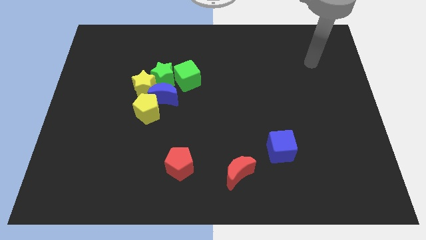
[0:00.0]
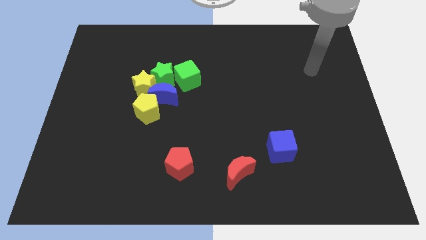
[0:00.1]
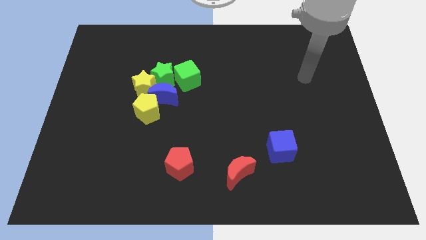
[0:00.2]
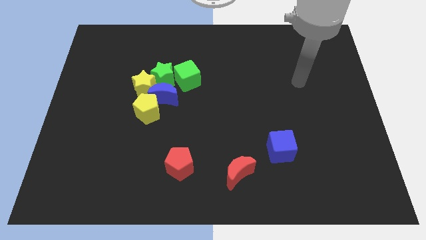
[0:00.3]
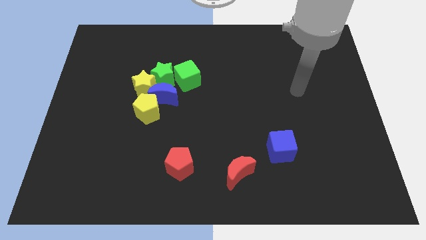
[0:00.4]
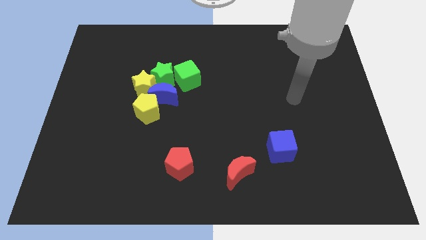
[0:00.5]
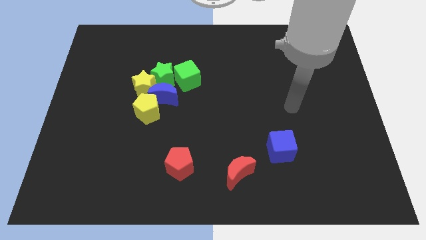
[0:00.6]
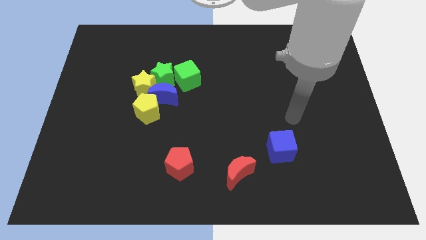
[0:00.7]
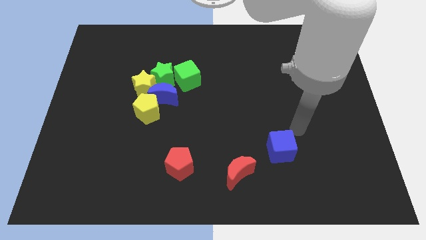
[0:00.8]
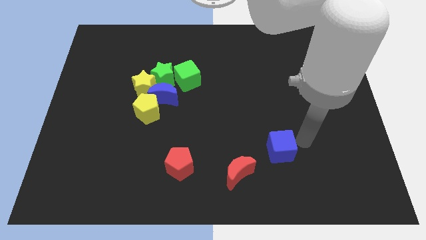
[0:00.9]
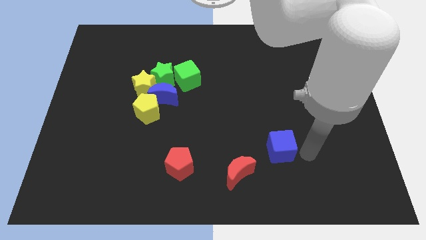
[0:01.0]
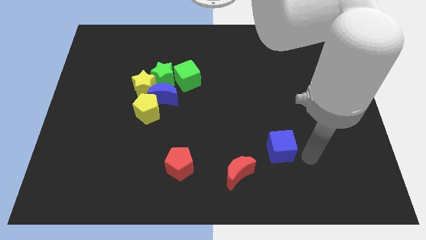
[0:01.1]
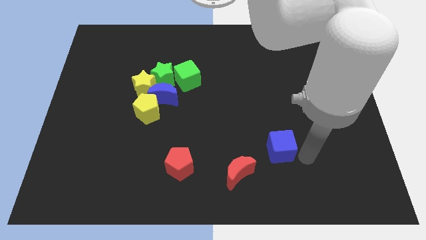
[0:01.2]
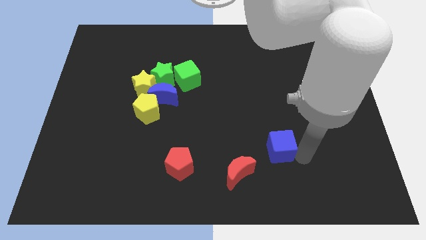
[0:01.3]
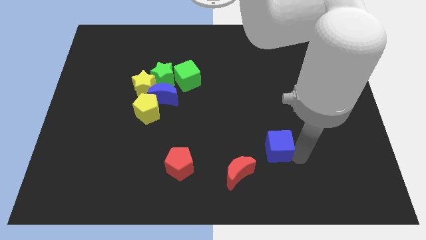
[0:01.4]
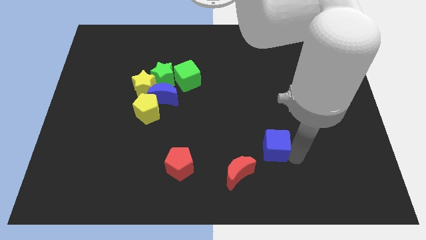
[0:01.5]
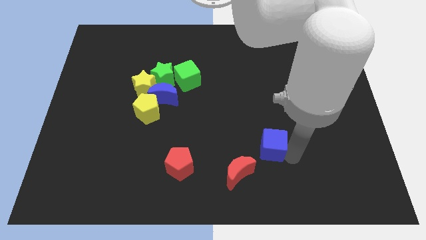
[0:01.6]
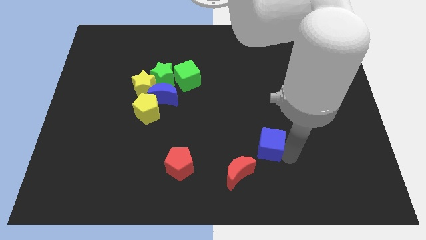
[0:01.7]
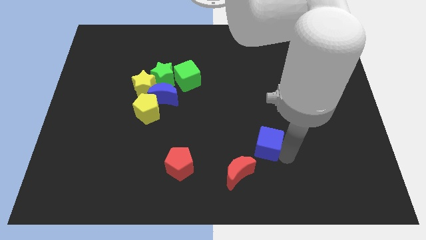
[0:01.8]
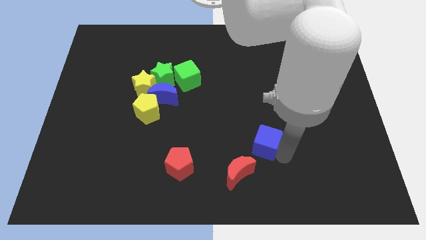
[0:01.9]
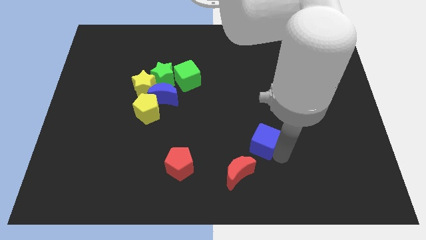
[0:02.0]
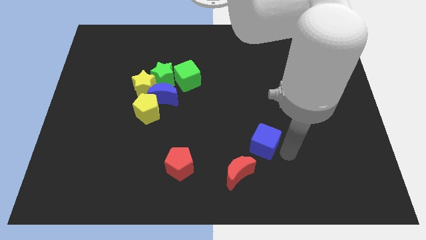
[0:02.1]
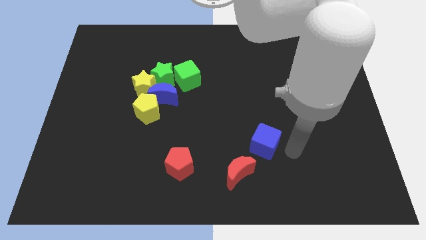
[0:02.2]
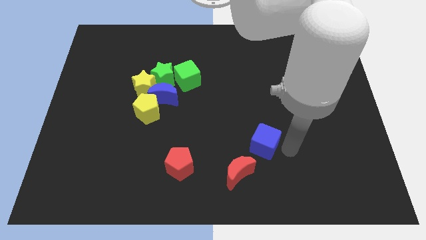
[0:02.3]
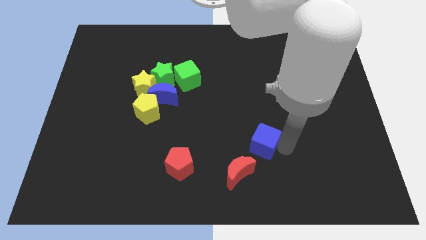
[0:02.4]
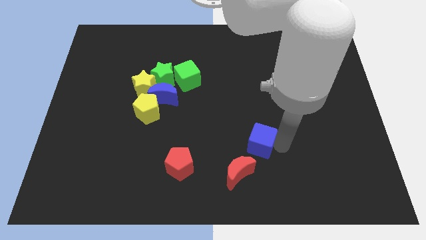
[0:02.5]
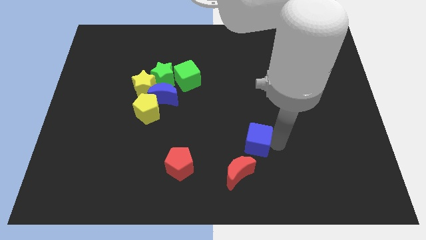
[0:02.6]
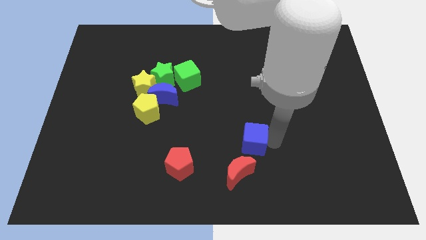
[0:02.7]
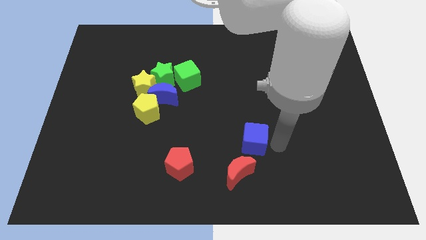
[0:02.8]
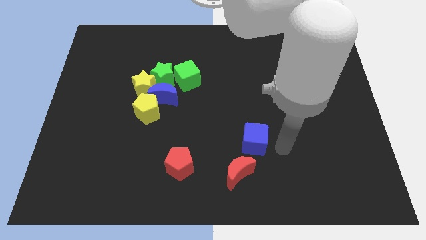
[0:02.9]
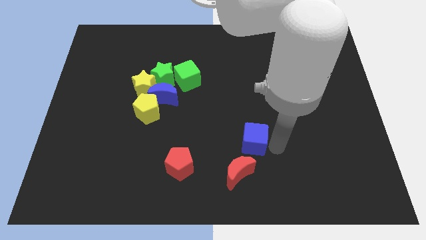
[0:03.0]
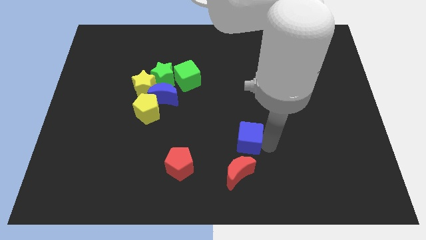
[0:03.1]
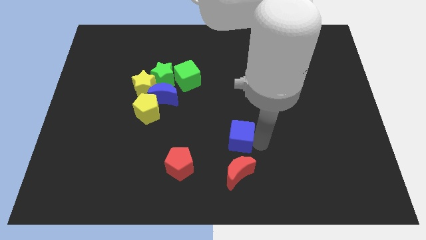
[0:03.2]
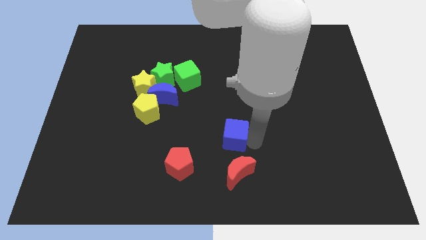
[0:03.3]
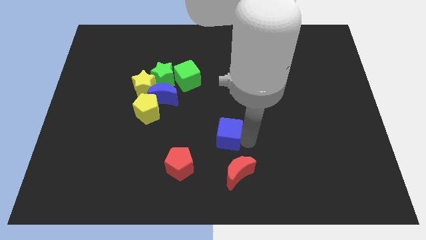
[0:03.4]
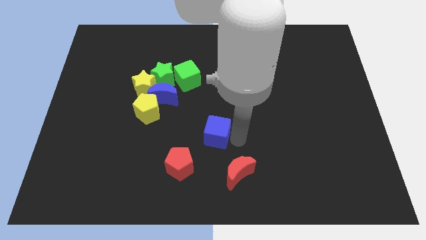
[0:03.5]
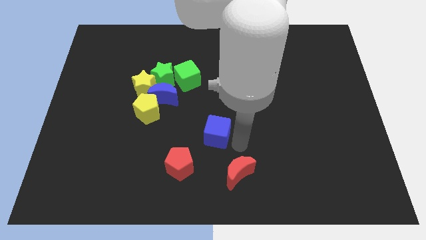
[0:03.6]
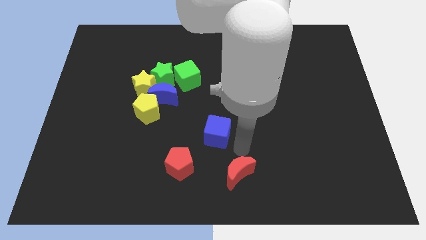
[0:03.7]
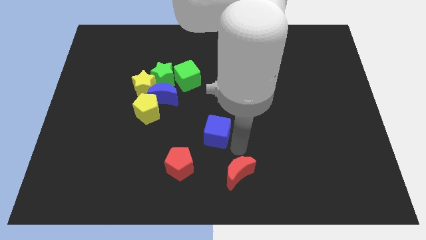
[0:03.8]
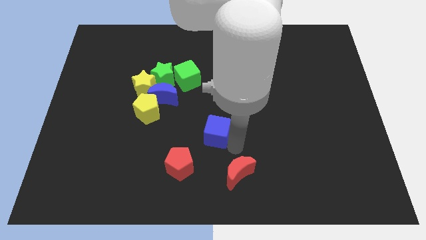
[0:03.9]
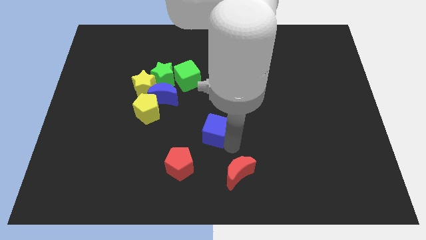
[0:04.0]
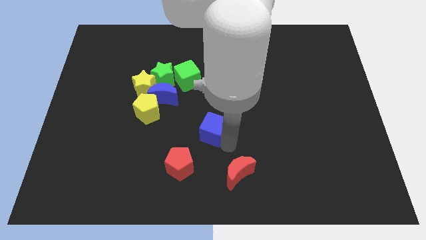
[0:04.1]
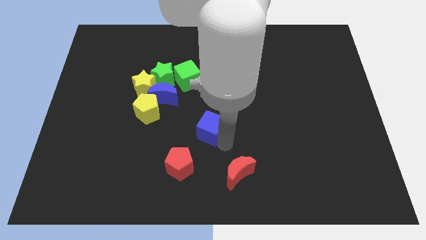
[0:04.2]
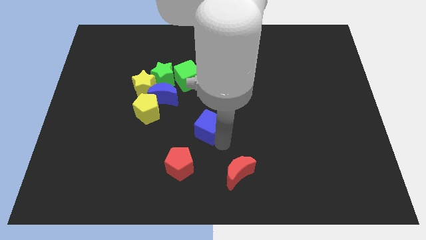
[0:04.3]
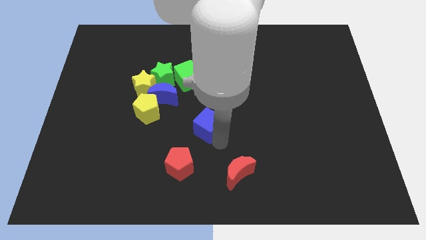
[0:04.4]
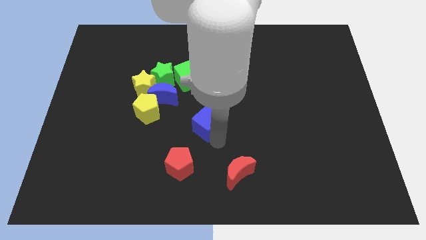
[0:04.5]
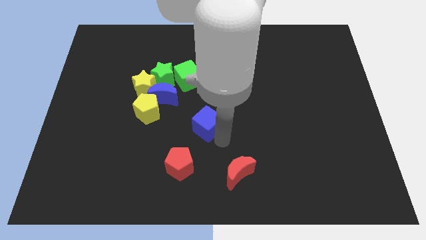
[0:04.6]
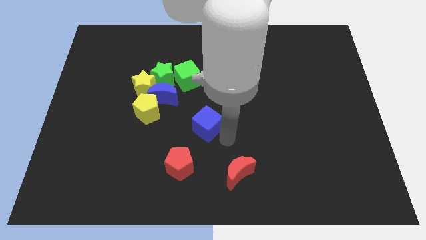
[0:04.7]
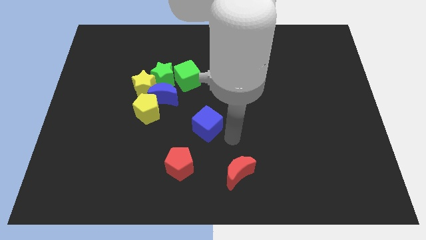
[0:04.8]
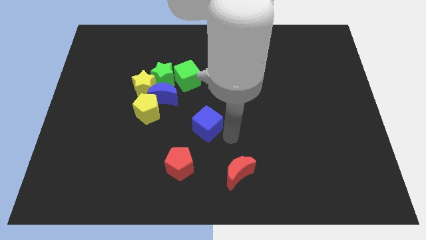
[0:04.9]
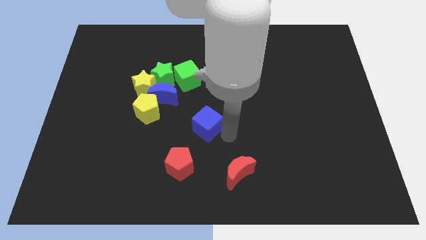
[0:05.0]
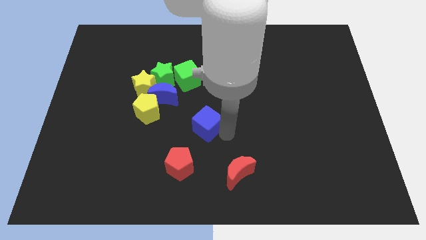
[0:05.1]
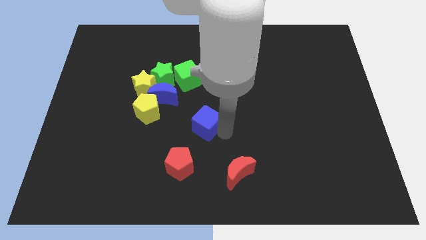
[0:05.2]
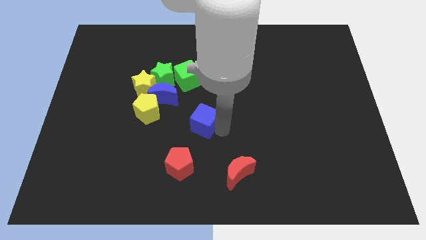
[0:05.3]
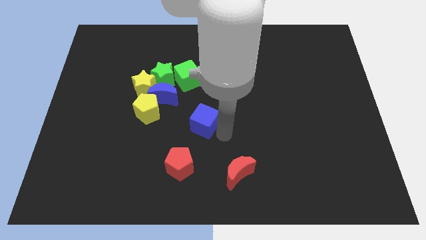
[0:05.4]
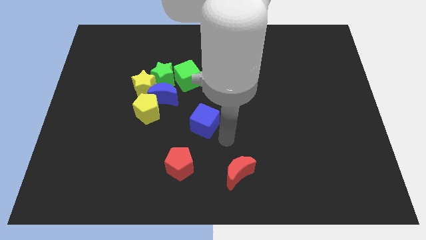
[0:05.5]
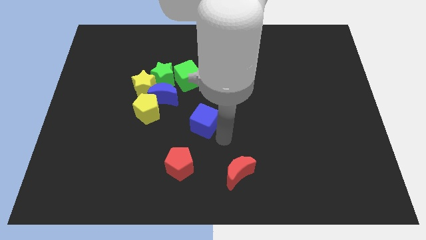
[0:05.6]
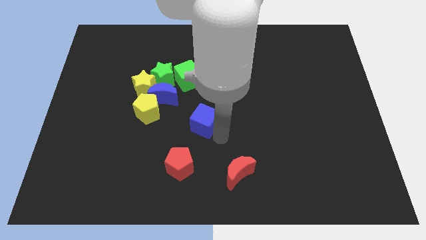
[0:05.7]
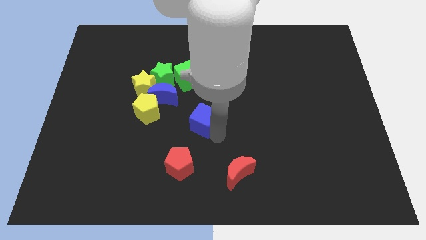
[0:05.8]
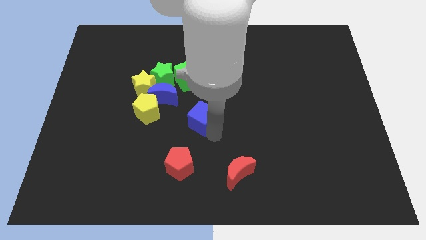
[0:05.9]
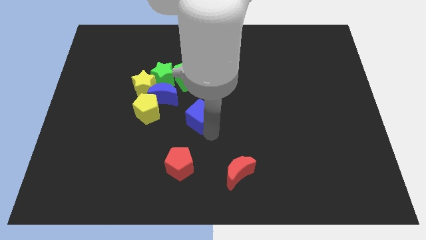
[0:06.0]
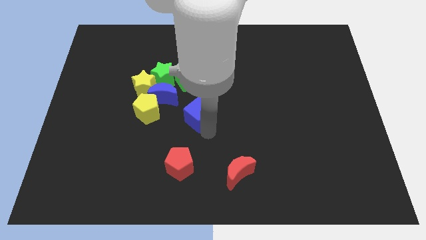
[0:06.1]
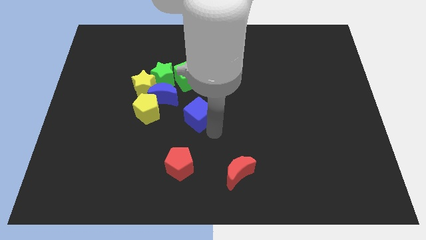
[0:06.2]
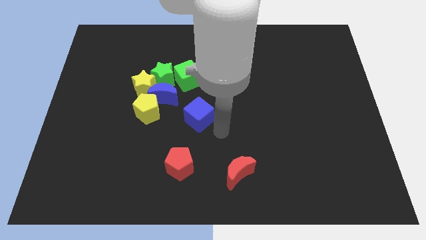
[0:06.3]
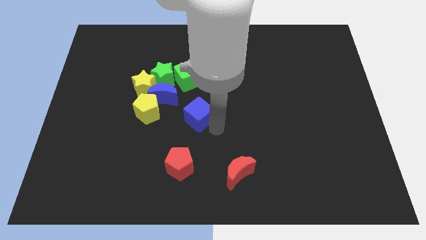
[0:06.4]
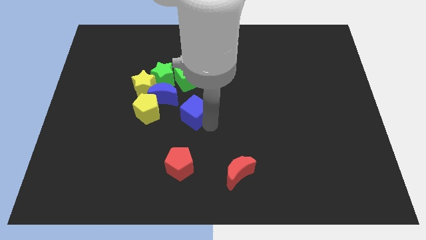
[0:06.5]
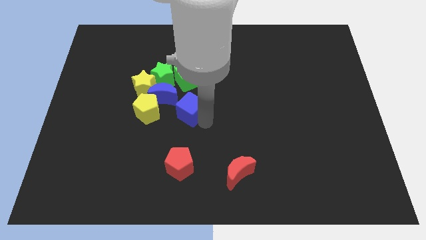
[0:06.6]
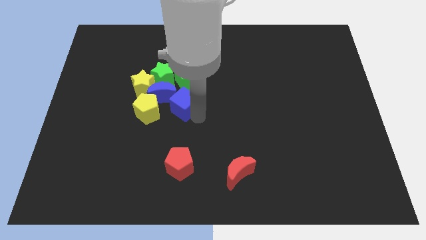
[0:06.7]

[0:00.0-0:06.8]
move the blue cube towards the blue moon
